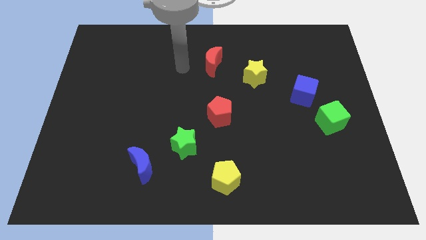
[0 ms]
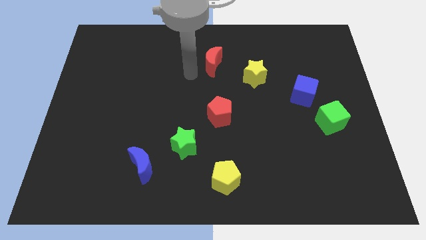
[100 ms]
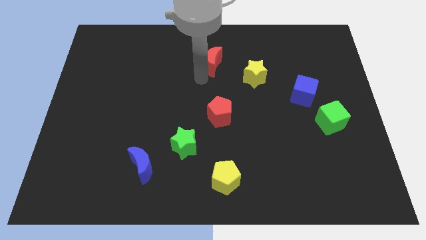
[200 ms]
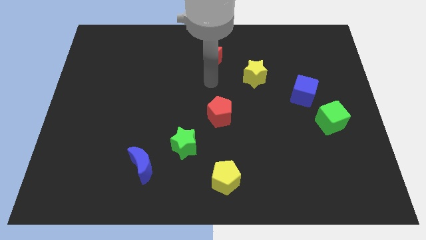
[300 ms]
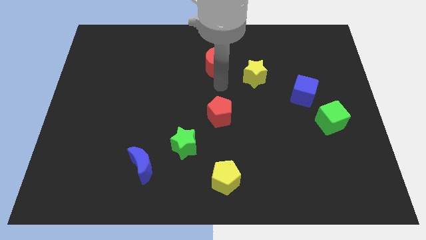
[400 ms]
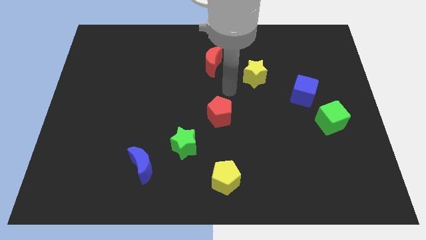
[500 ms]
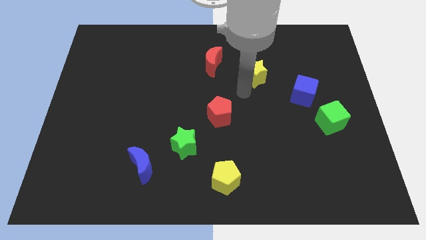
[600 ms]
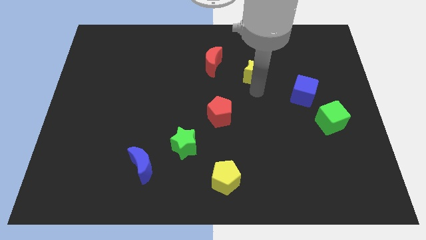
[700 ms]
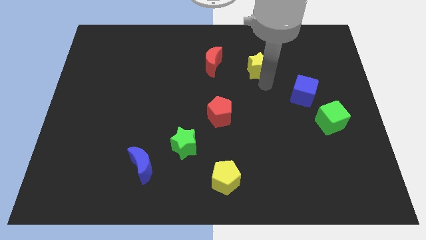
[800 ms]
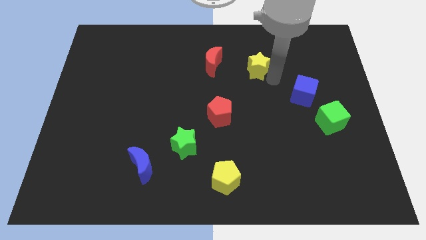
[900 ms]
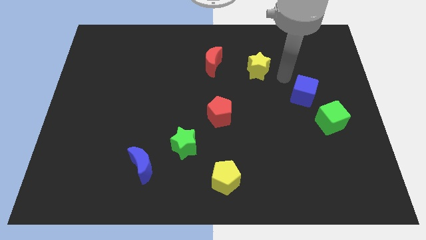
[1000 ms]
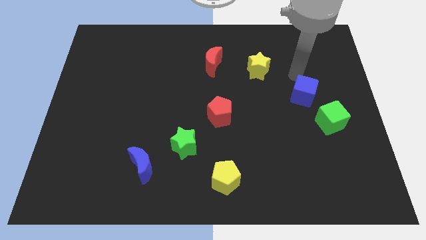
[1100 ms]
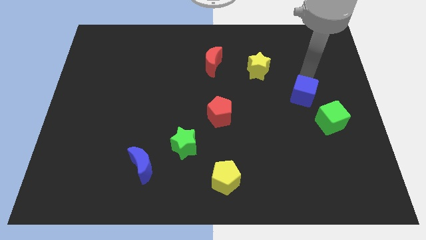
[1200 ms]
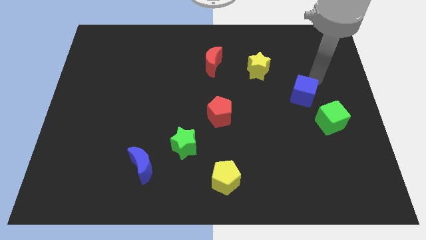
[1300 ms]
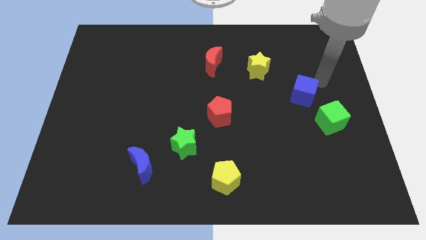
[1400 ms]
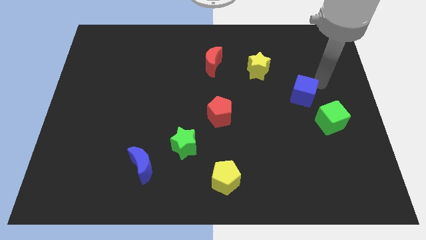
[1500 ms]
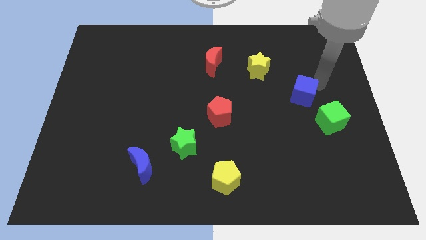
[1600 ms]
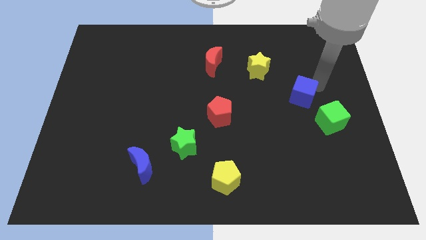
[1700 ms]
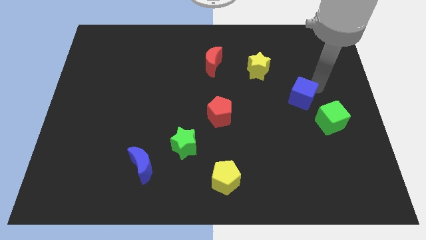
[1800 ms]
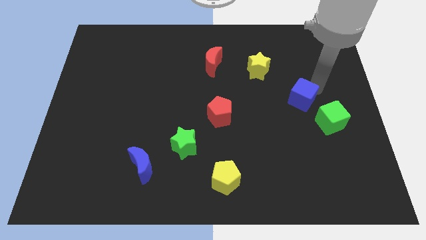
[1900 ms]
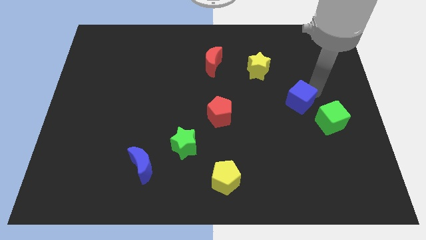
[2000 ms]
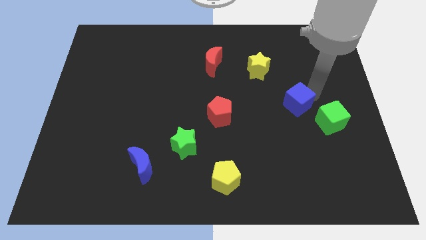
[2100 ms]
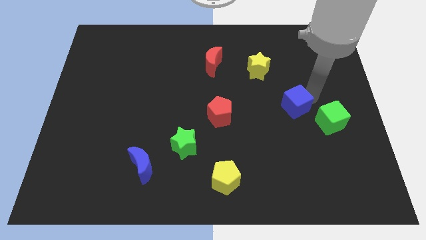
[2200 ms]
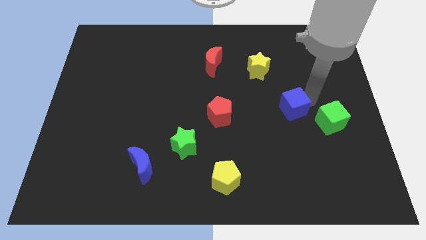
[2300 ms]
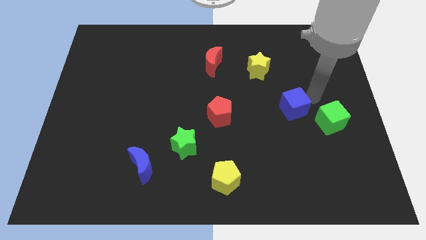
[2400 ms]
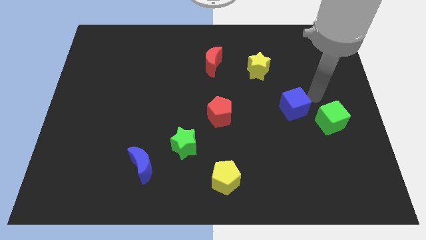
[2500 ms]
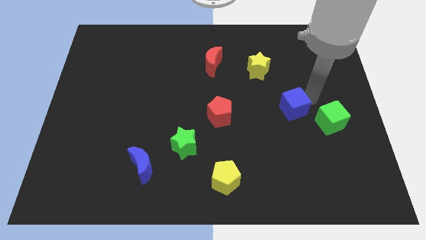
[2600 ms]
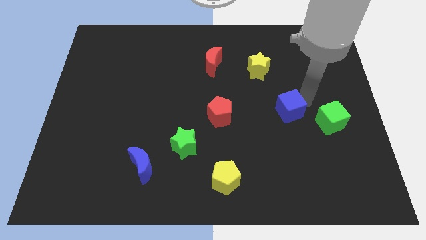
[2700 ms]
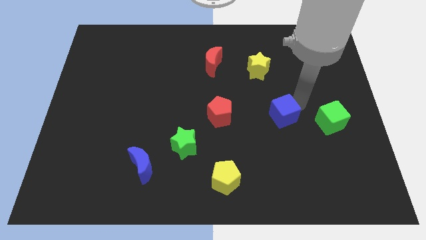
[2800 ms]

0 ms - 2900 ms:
slightly slide the blue cube down and then left

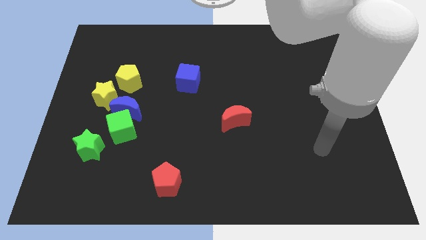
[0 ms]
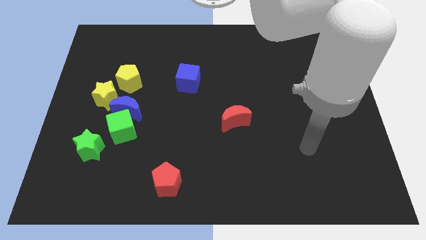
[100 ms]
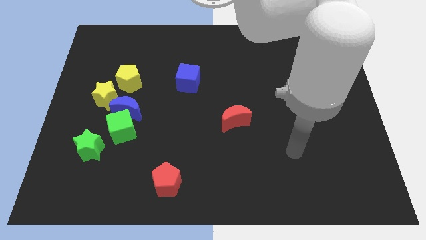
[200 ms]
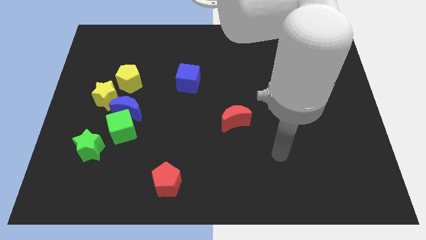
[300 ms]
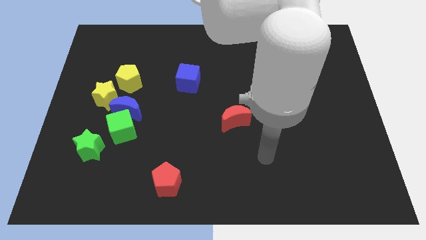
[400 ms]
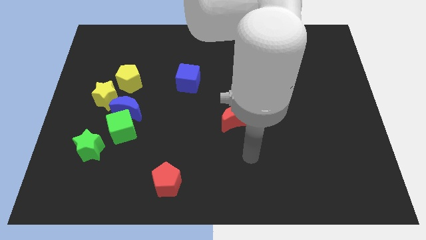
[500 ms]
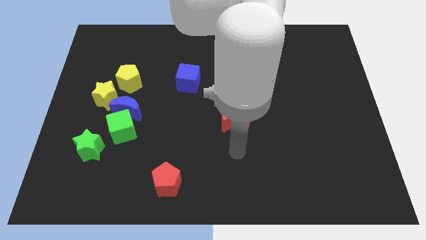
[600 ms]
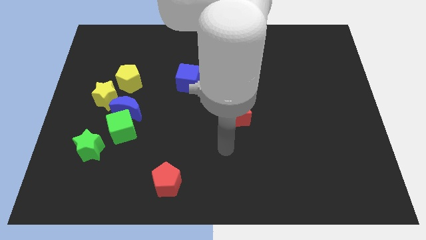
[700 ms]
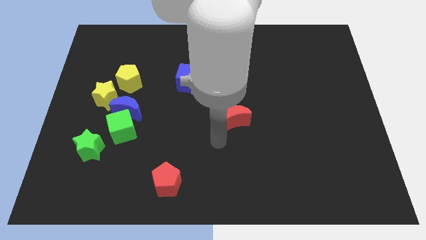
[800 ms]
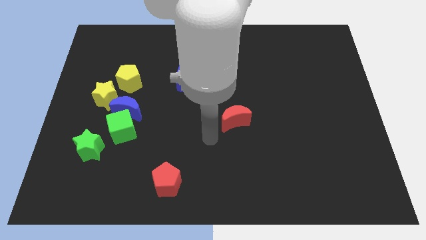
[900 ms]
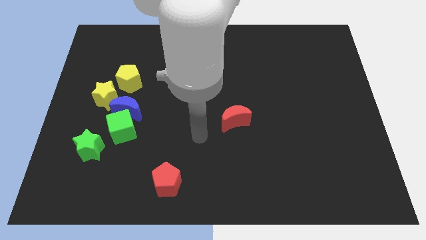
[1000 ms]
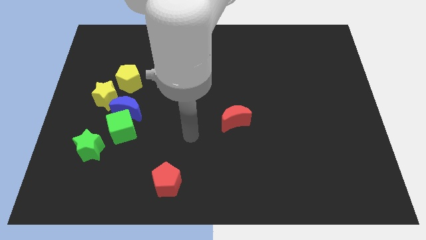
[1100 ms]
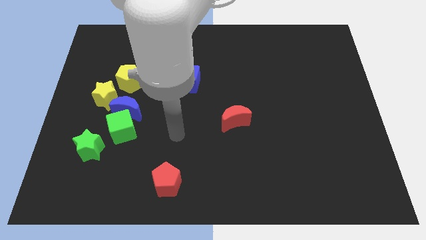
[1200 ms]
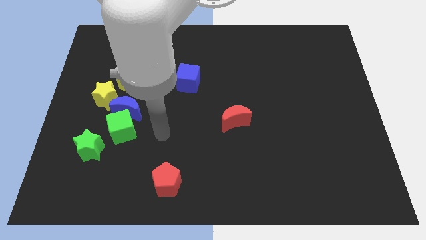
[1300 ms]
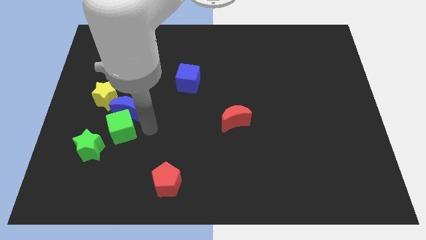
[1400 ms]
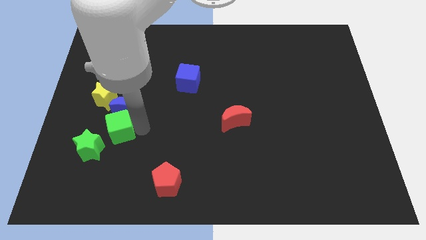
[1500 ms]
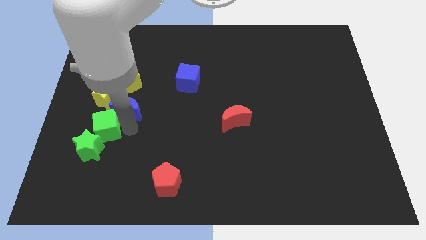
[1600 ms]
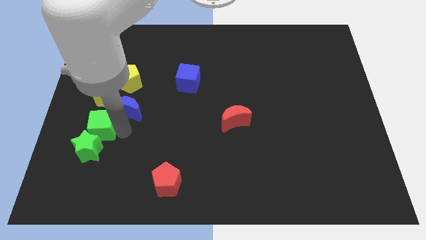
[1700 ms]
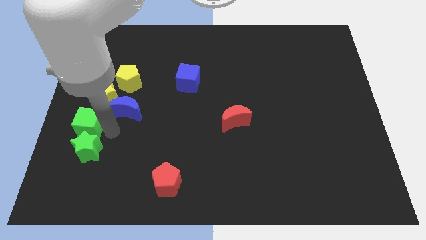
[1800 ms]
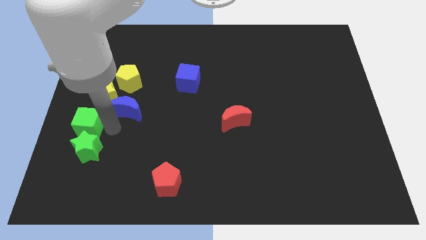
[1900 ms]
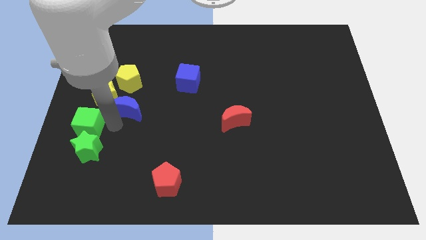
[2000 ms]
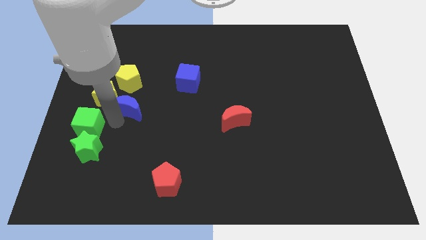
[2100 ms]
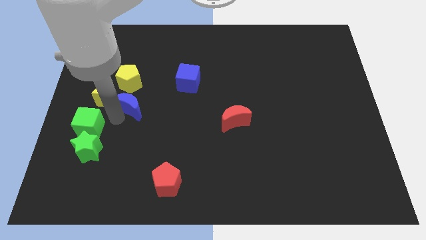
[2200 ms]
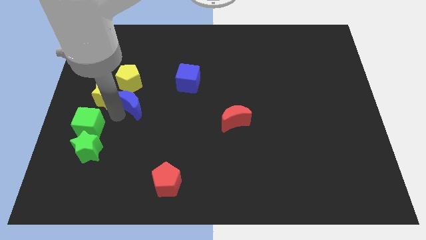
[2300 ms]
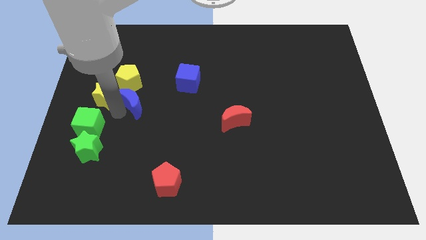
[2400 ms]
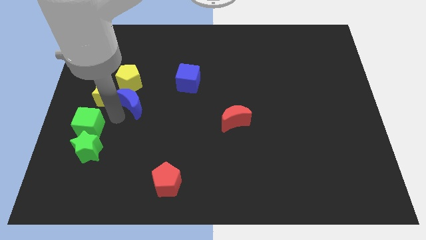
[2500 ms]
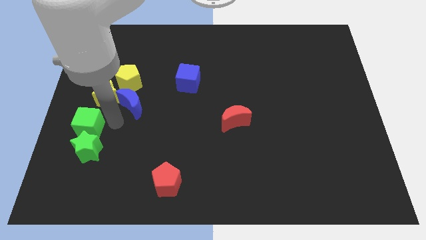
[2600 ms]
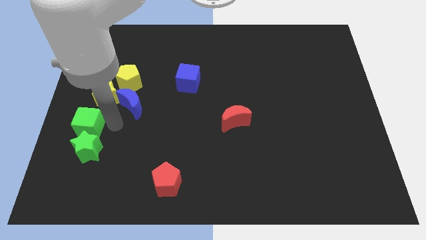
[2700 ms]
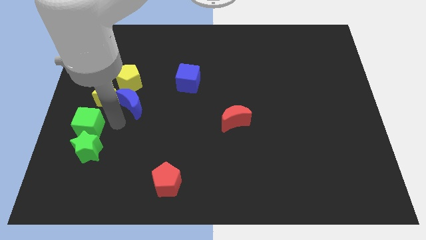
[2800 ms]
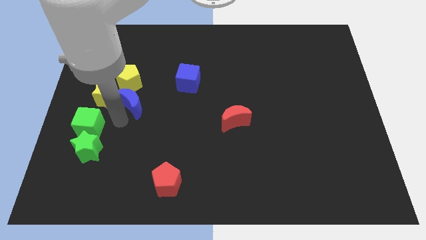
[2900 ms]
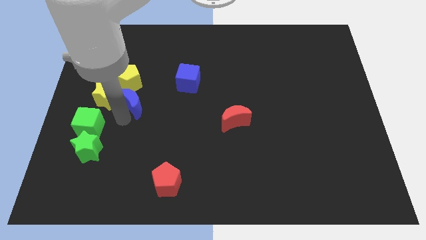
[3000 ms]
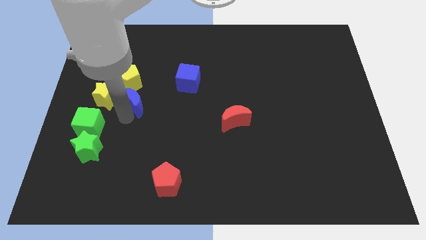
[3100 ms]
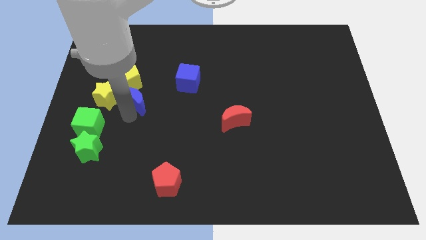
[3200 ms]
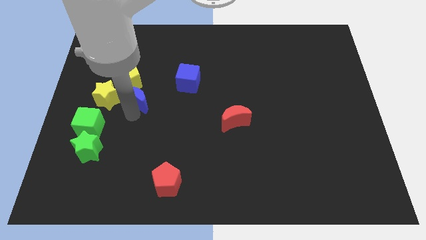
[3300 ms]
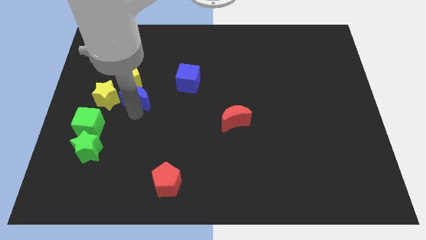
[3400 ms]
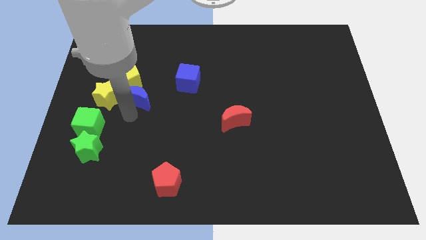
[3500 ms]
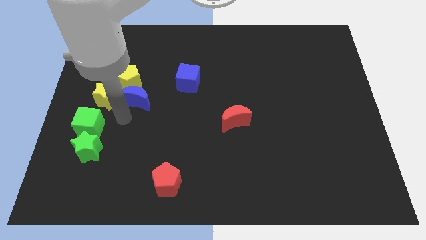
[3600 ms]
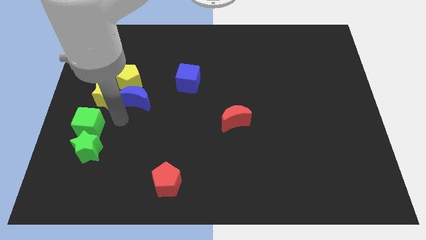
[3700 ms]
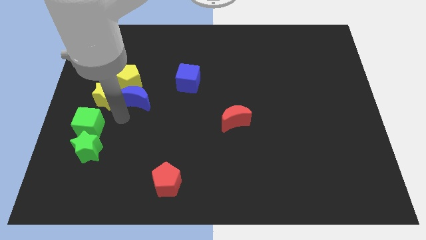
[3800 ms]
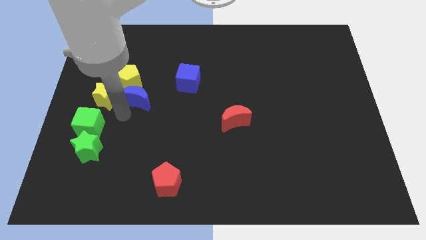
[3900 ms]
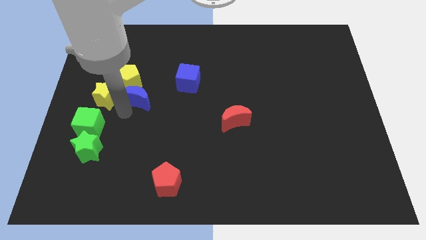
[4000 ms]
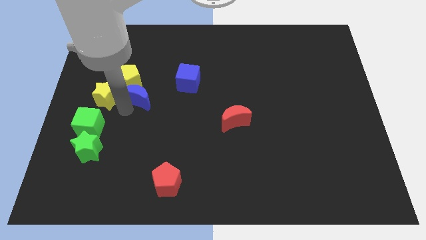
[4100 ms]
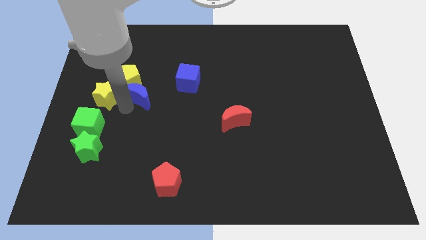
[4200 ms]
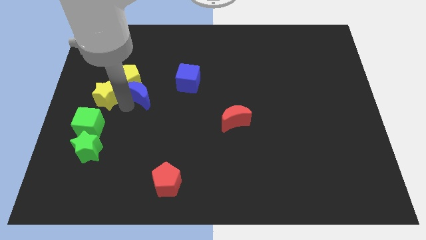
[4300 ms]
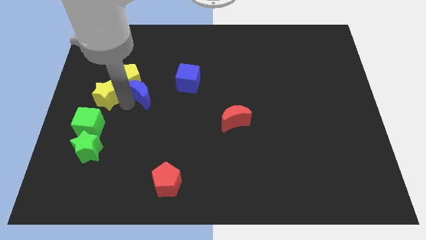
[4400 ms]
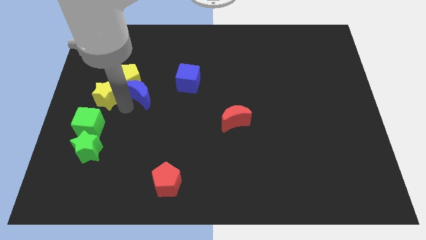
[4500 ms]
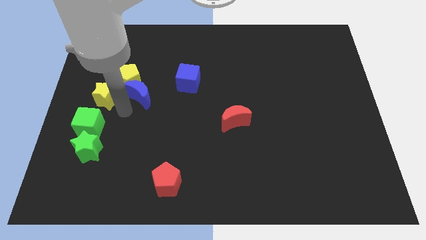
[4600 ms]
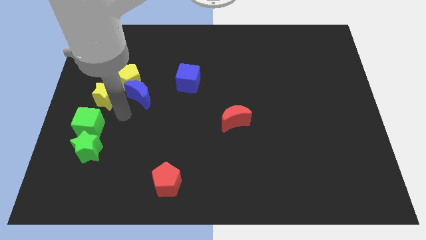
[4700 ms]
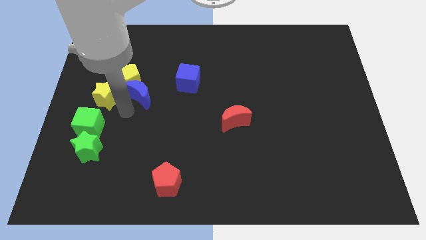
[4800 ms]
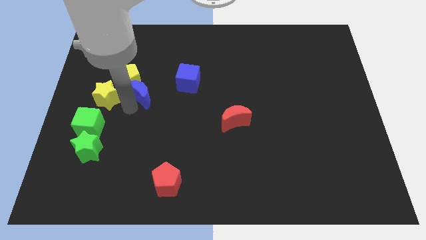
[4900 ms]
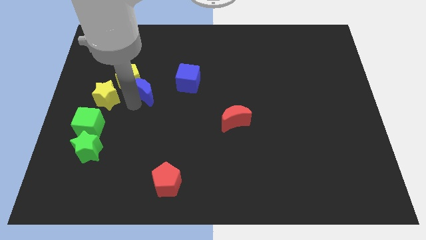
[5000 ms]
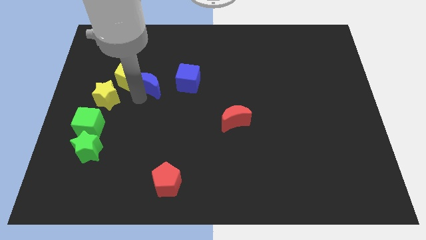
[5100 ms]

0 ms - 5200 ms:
push the blue moon a little diagonally up and right
